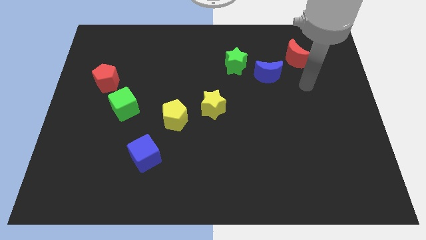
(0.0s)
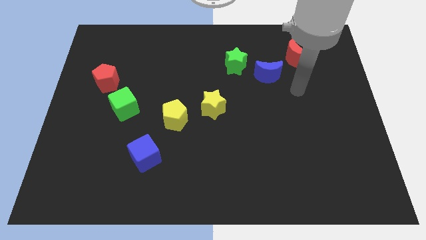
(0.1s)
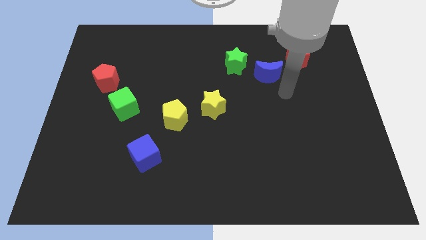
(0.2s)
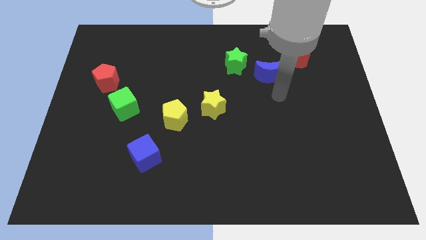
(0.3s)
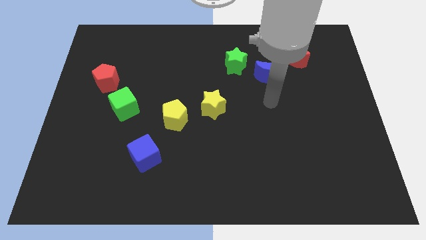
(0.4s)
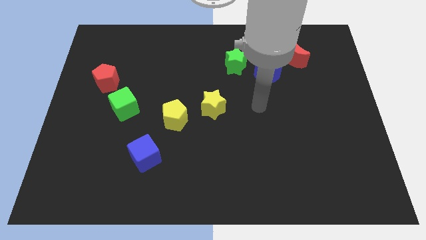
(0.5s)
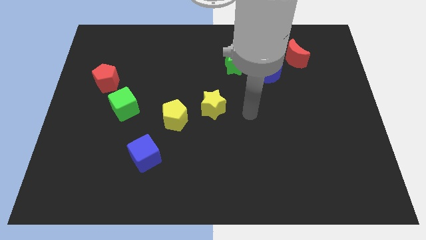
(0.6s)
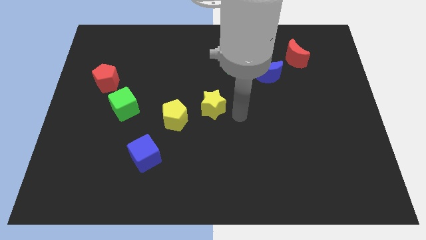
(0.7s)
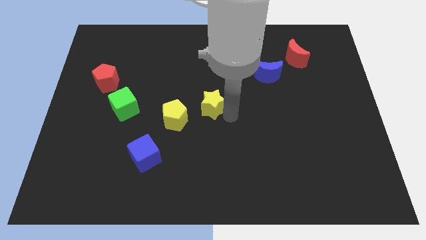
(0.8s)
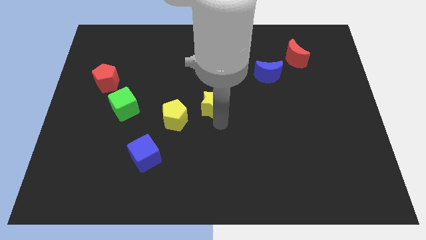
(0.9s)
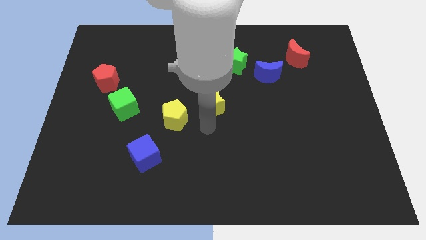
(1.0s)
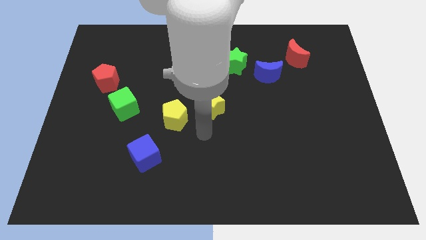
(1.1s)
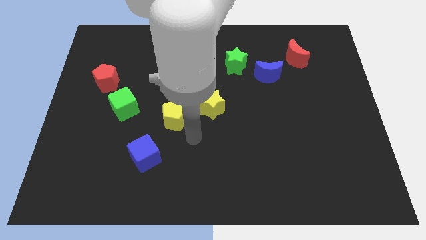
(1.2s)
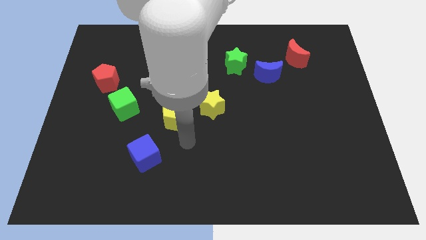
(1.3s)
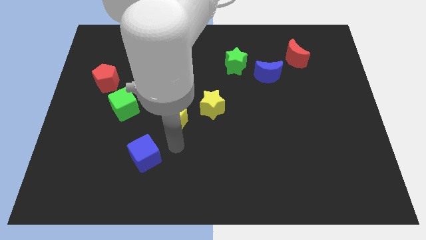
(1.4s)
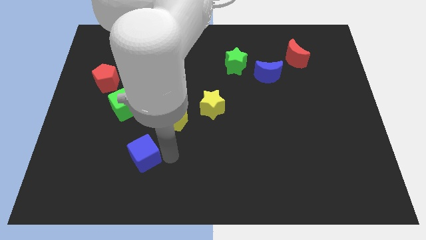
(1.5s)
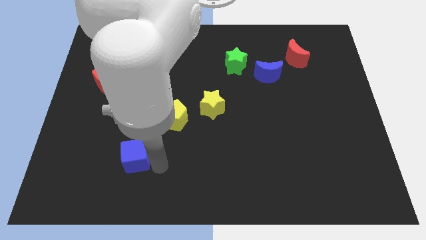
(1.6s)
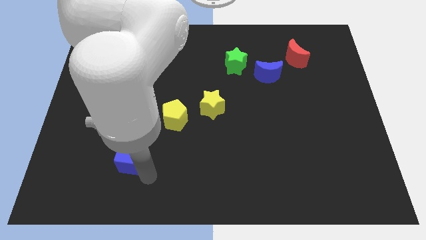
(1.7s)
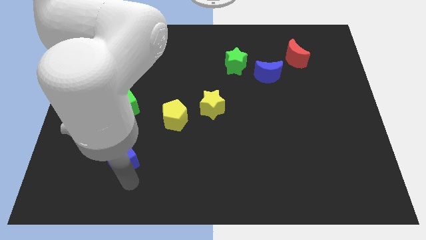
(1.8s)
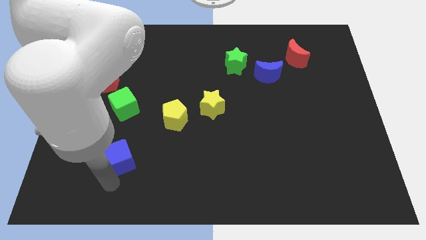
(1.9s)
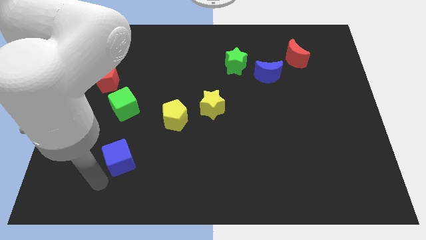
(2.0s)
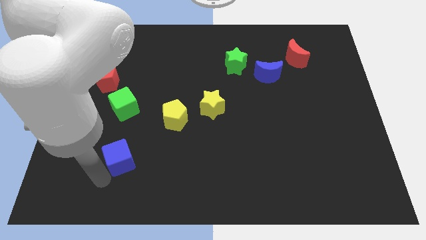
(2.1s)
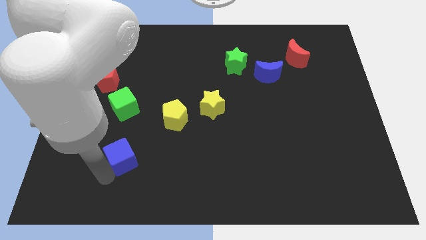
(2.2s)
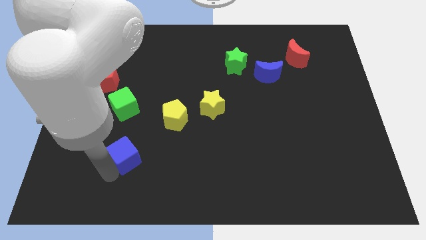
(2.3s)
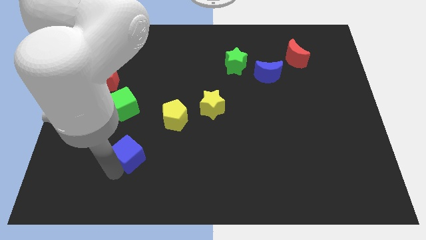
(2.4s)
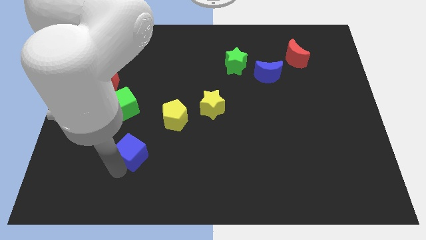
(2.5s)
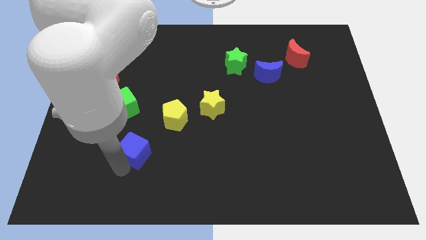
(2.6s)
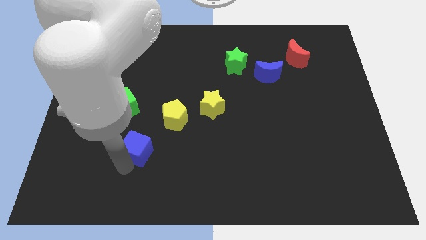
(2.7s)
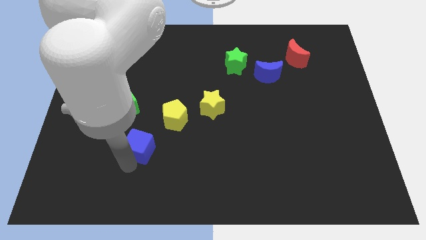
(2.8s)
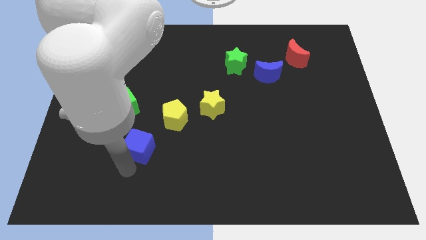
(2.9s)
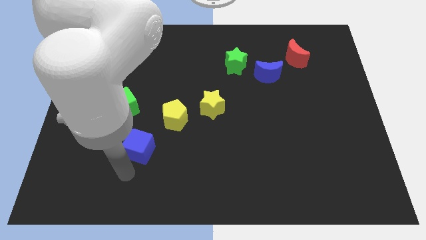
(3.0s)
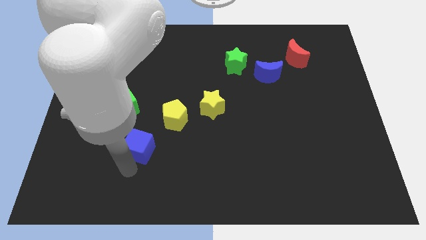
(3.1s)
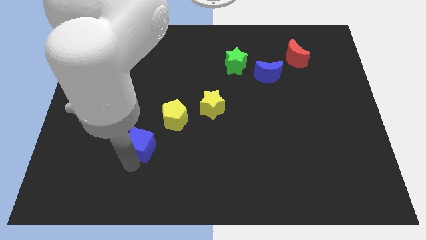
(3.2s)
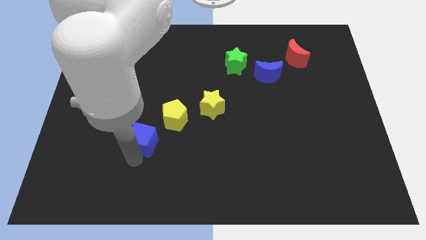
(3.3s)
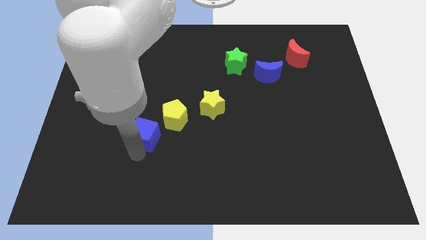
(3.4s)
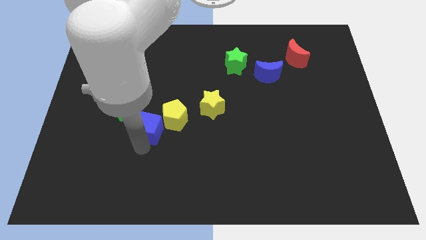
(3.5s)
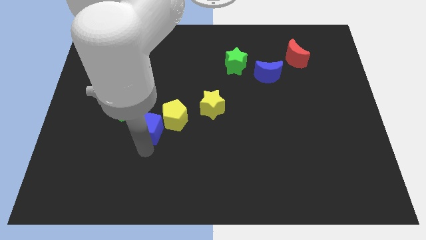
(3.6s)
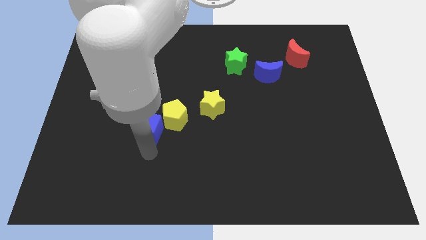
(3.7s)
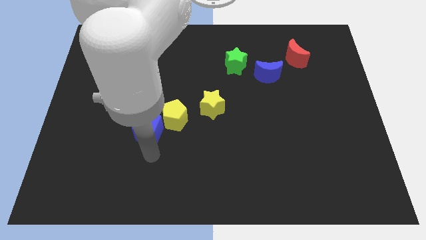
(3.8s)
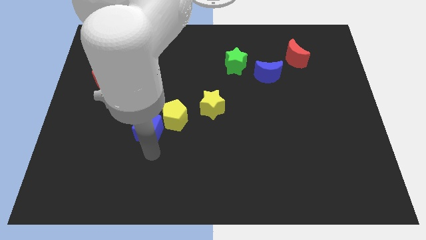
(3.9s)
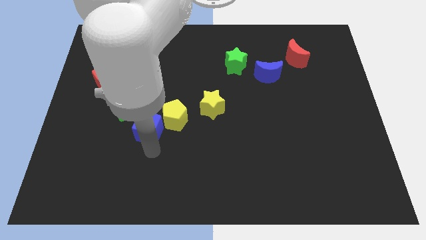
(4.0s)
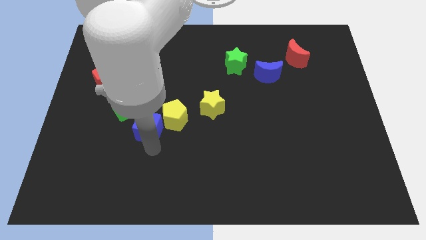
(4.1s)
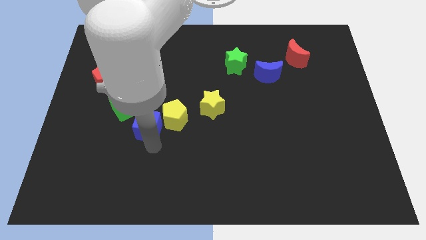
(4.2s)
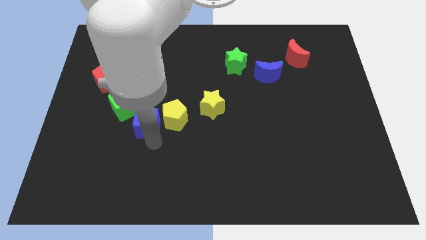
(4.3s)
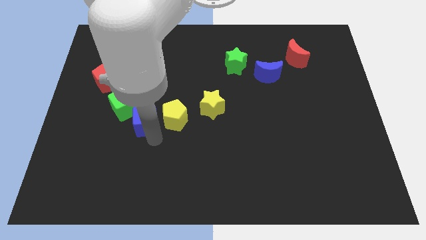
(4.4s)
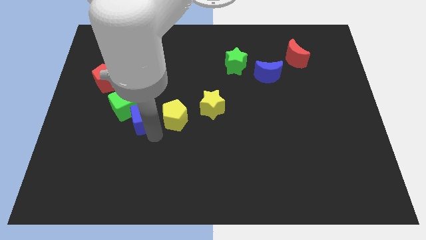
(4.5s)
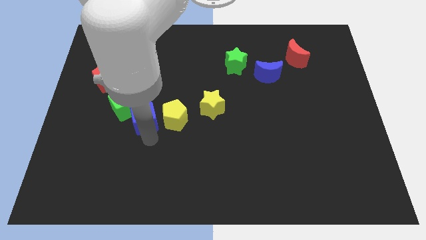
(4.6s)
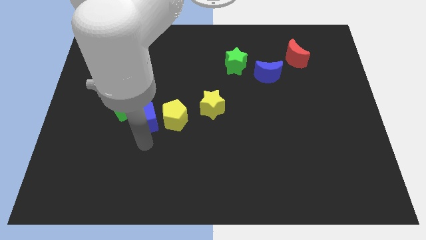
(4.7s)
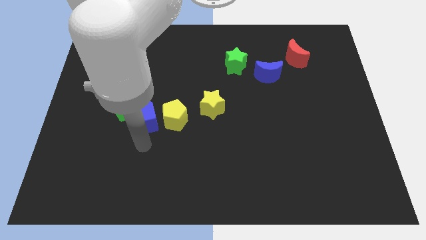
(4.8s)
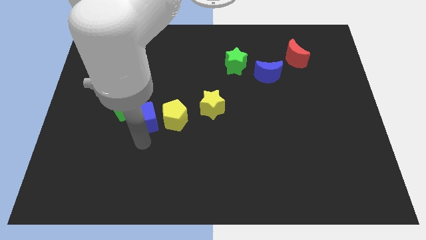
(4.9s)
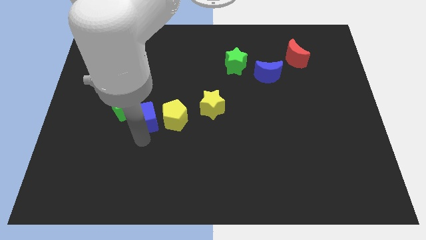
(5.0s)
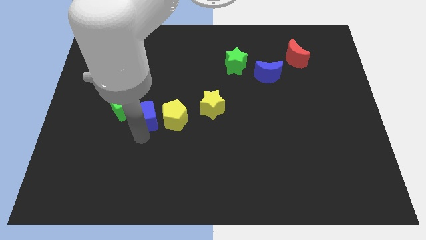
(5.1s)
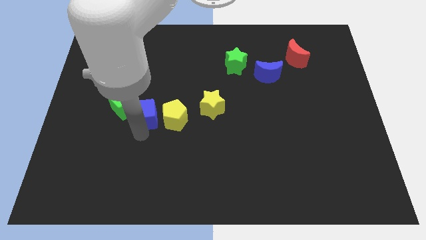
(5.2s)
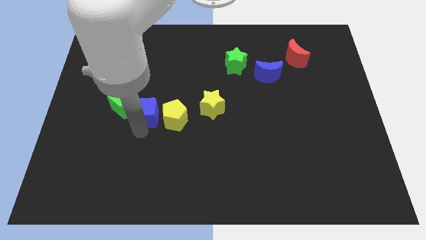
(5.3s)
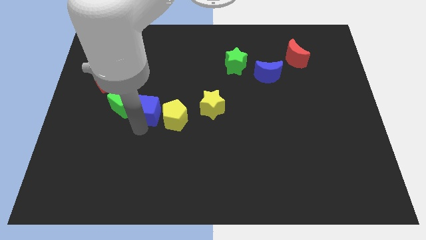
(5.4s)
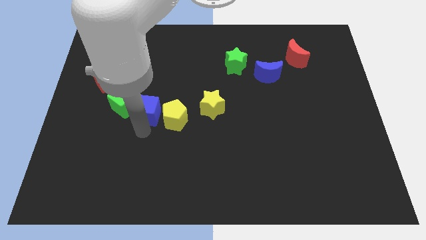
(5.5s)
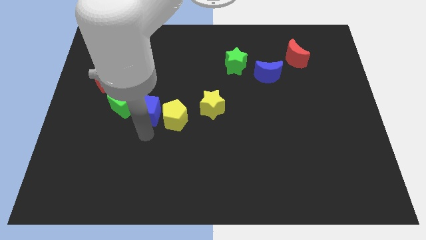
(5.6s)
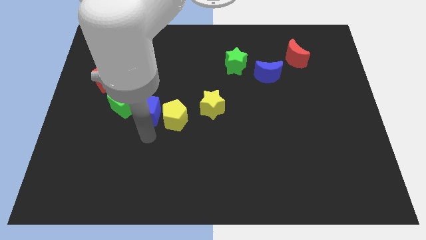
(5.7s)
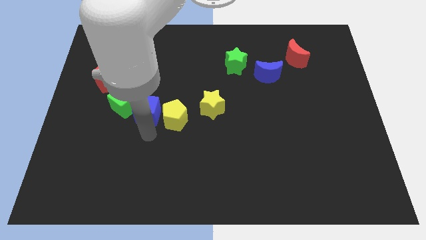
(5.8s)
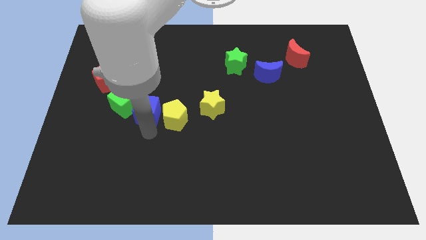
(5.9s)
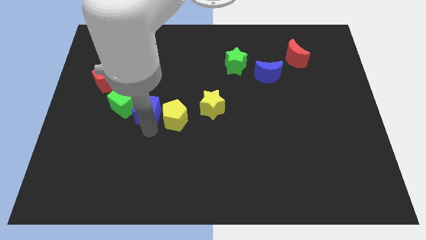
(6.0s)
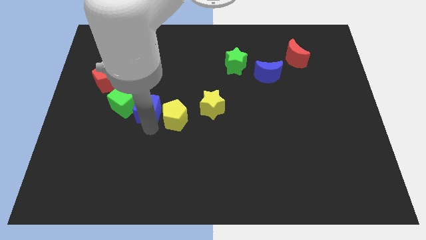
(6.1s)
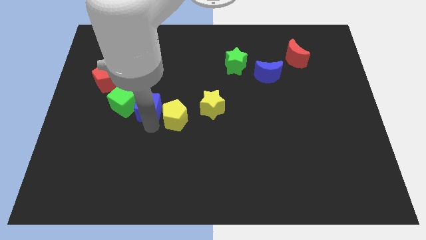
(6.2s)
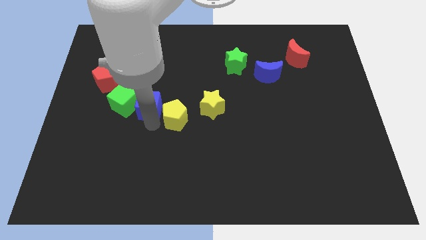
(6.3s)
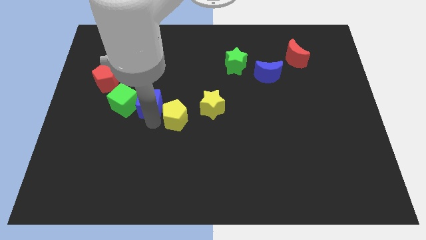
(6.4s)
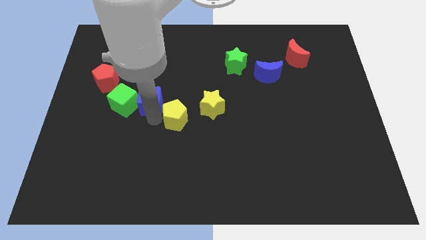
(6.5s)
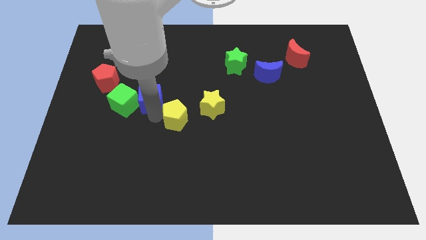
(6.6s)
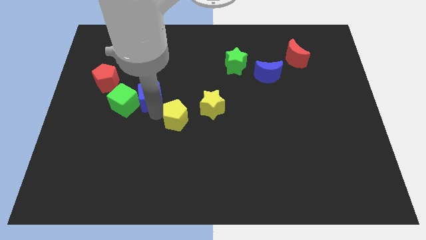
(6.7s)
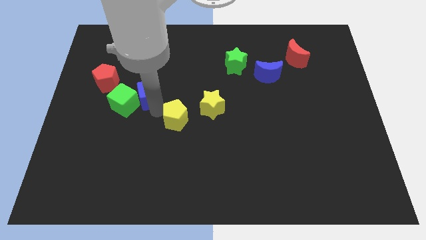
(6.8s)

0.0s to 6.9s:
slide the blue cube to the right side of the red pentagon

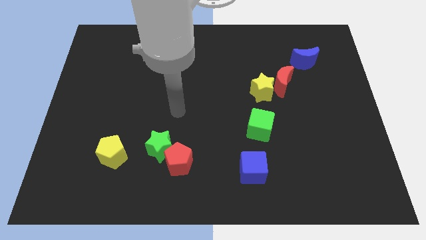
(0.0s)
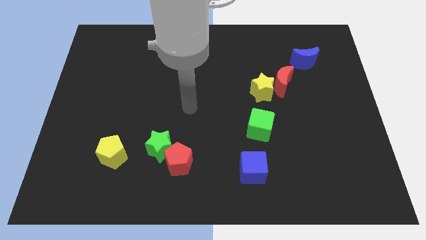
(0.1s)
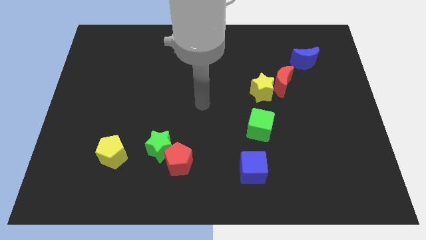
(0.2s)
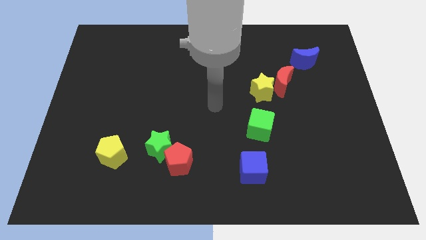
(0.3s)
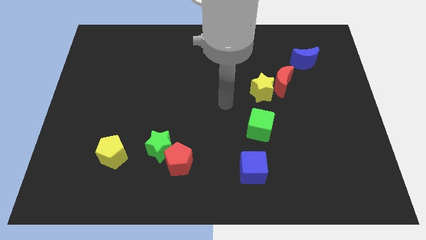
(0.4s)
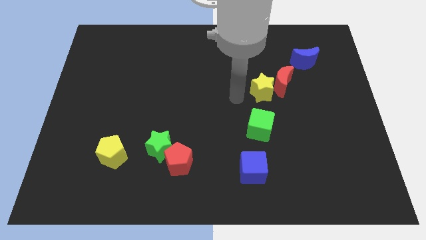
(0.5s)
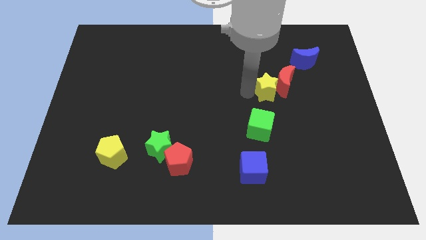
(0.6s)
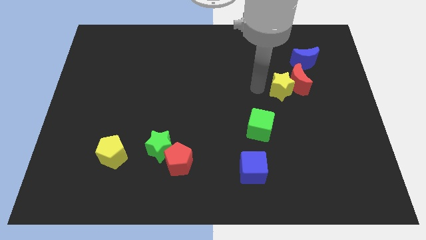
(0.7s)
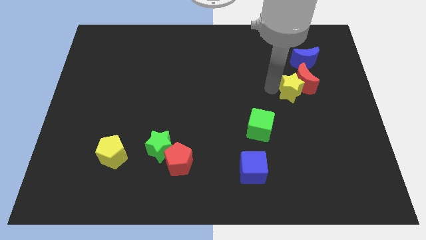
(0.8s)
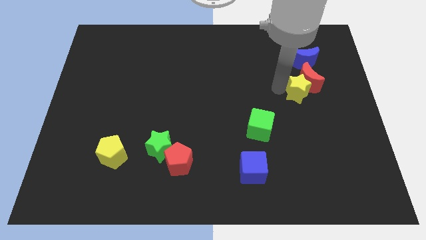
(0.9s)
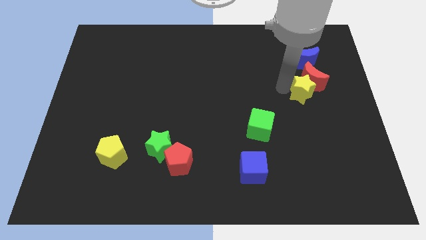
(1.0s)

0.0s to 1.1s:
push the red moon to the bottom right of the blue moon
